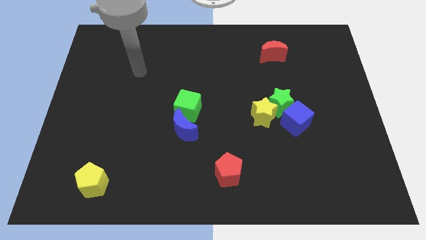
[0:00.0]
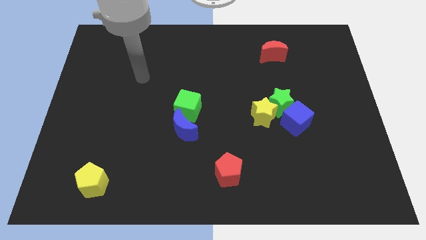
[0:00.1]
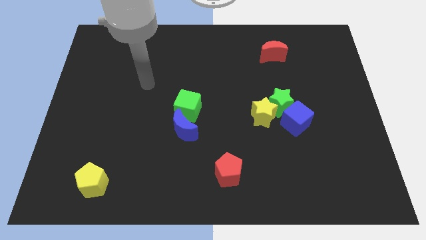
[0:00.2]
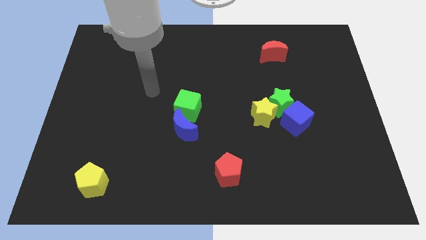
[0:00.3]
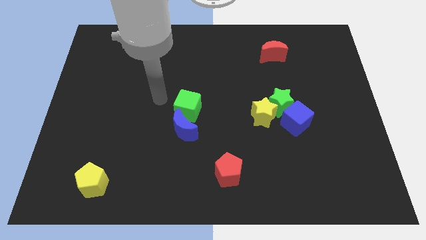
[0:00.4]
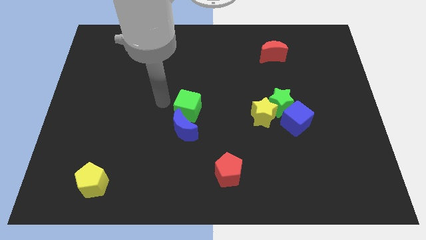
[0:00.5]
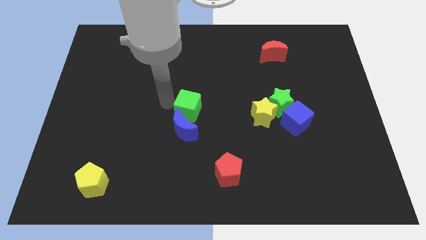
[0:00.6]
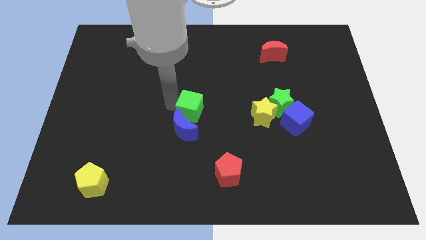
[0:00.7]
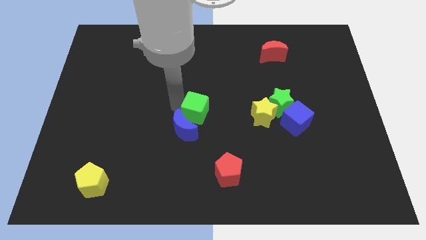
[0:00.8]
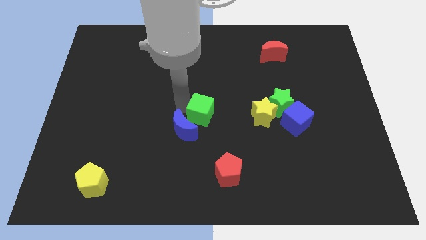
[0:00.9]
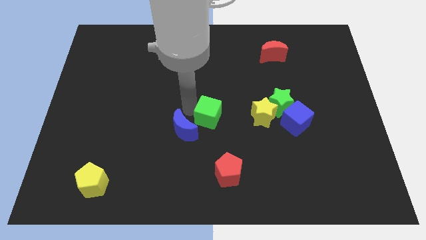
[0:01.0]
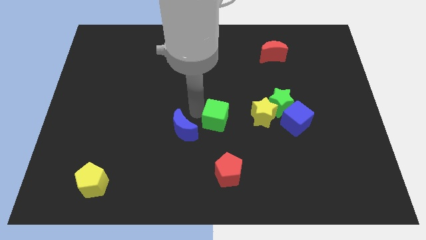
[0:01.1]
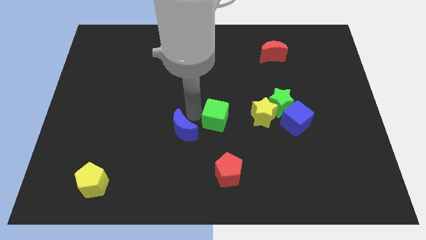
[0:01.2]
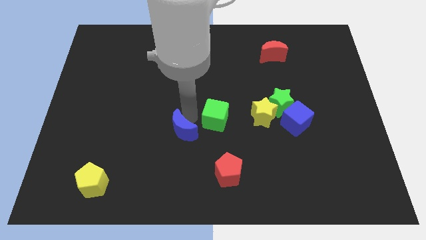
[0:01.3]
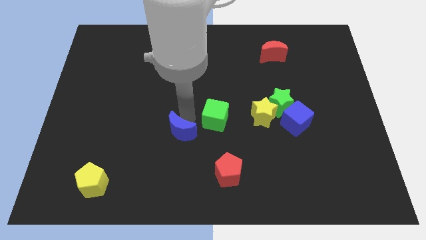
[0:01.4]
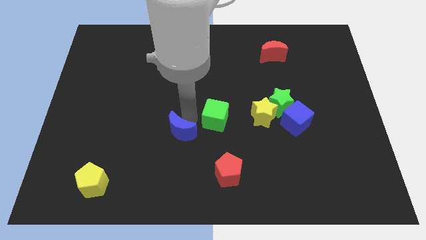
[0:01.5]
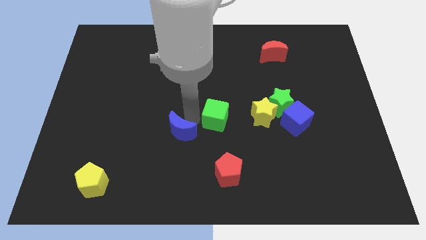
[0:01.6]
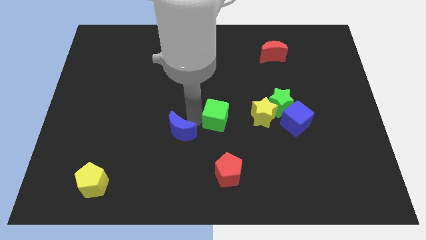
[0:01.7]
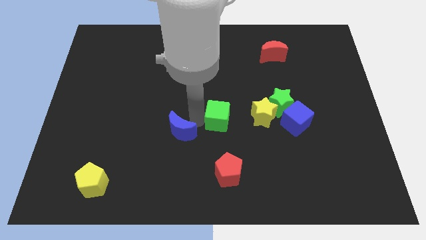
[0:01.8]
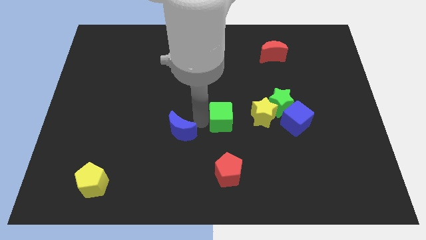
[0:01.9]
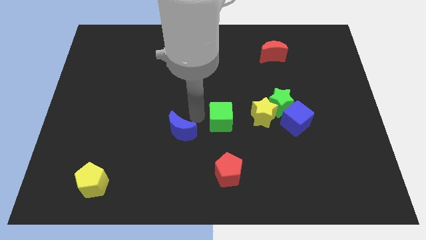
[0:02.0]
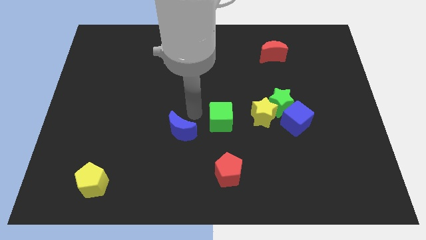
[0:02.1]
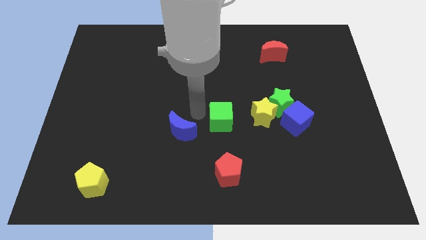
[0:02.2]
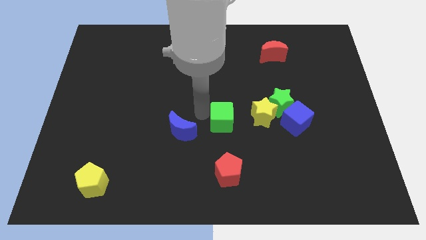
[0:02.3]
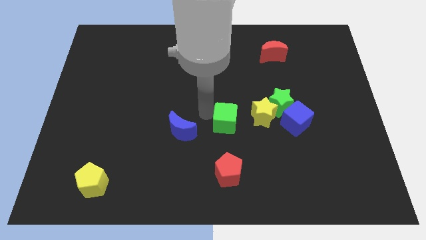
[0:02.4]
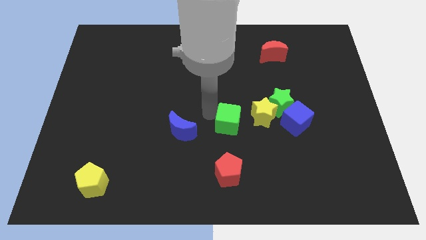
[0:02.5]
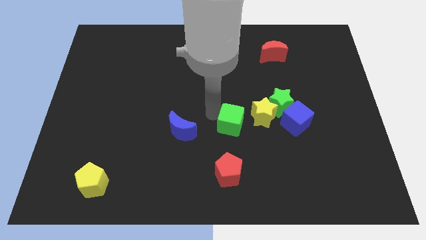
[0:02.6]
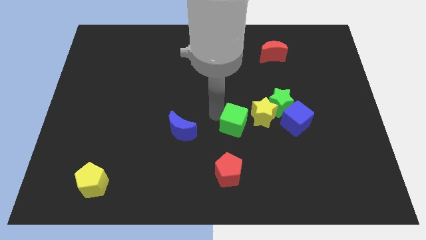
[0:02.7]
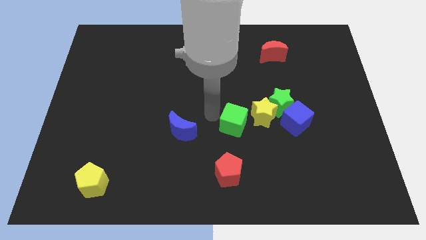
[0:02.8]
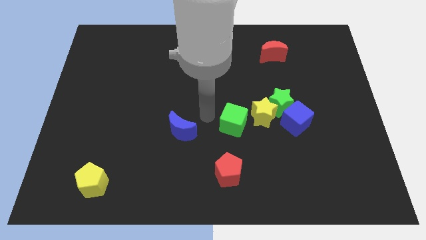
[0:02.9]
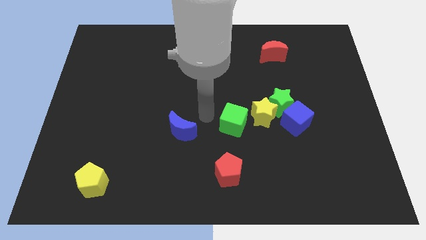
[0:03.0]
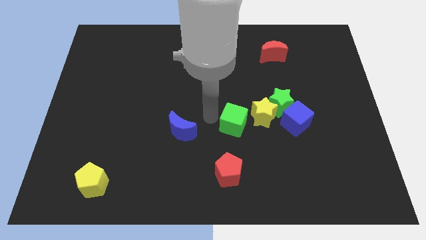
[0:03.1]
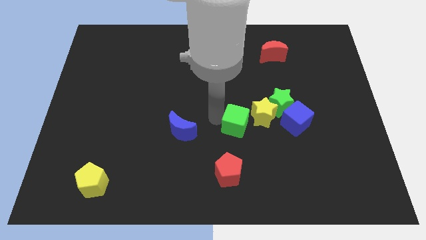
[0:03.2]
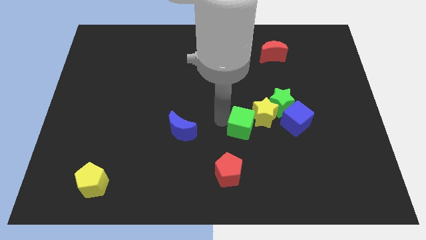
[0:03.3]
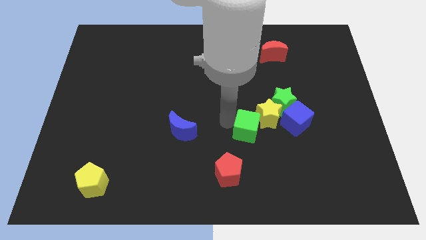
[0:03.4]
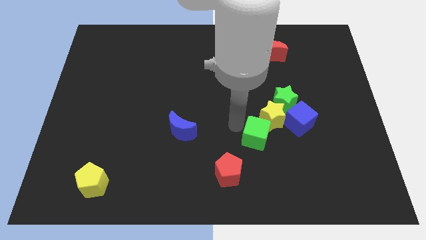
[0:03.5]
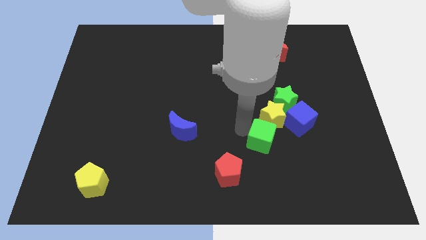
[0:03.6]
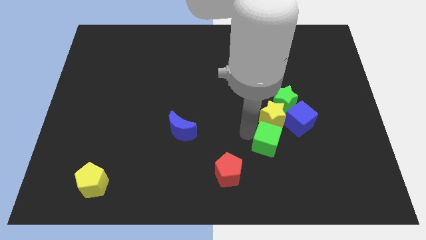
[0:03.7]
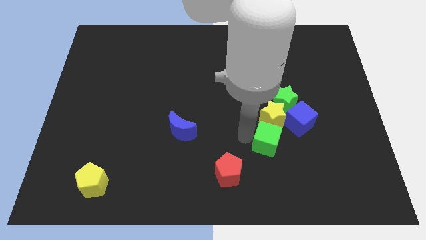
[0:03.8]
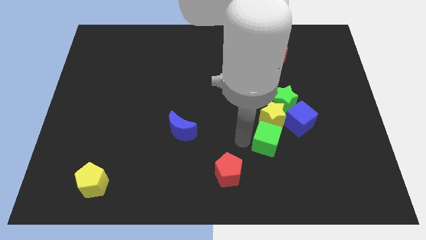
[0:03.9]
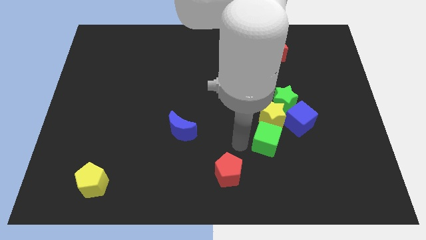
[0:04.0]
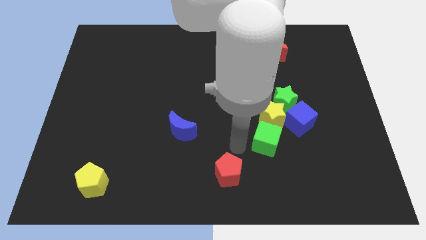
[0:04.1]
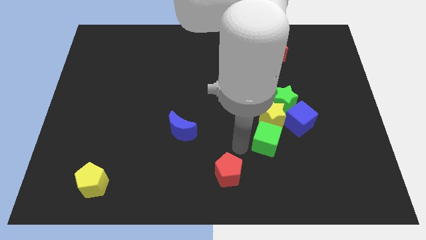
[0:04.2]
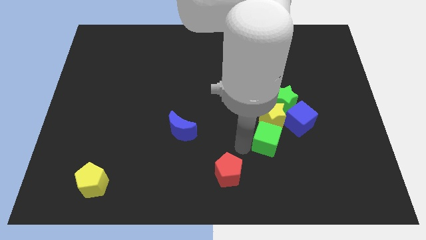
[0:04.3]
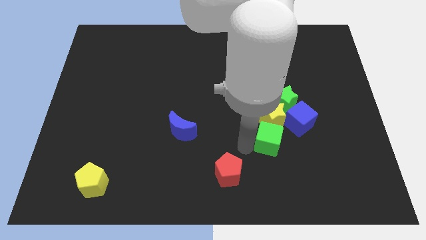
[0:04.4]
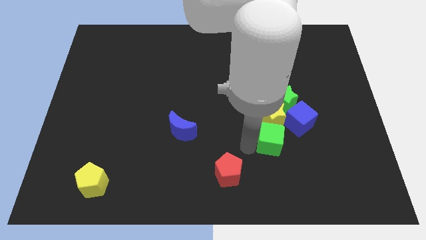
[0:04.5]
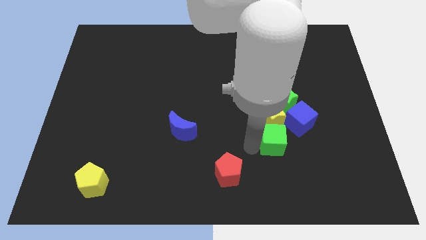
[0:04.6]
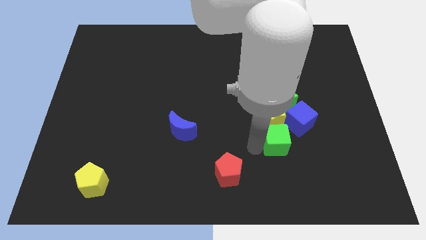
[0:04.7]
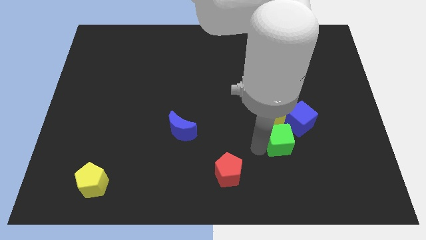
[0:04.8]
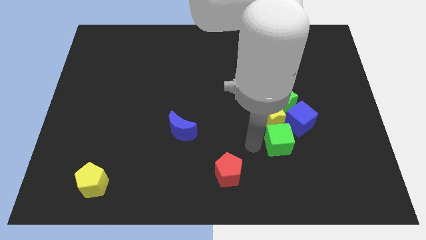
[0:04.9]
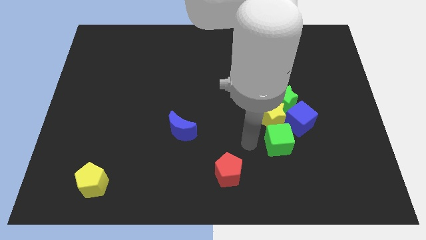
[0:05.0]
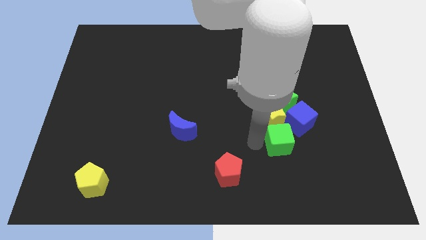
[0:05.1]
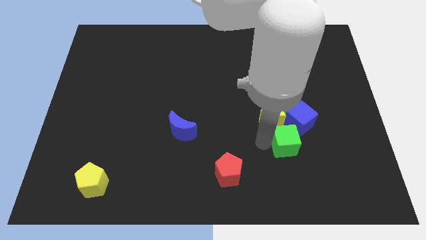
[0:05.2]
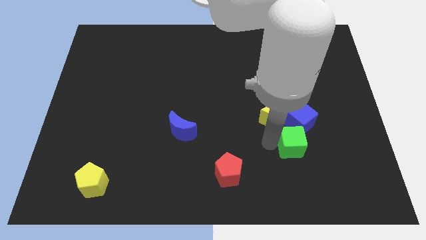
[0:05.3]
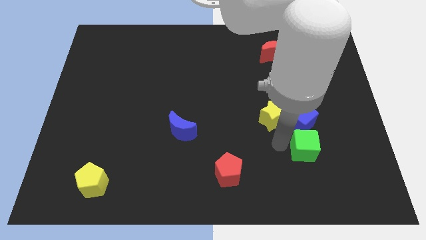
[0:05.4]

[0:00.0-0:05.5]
move the green cube to the bottom right of the blue cube

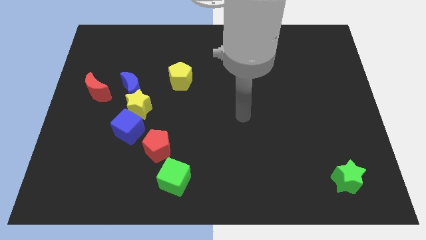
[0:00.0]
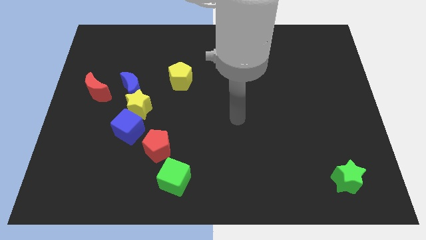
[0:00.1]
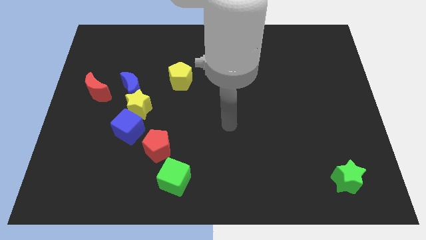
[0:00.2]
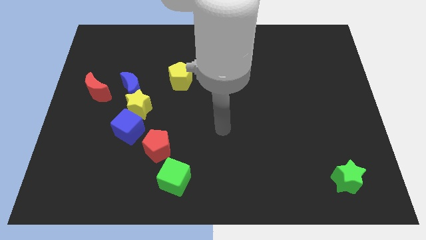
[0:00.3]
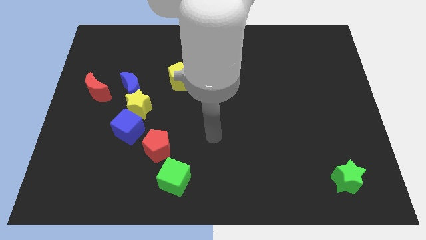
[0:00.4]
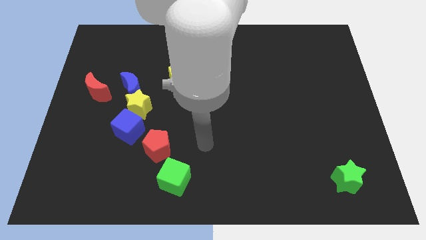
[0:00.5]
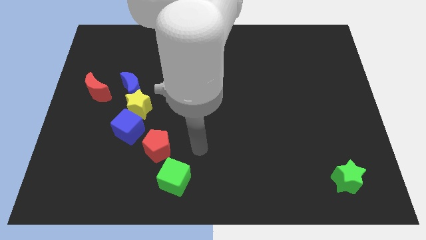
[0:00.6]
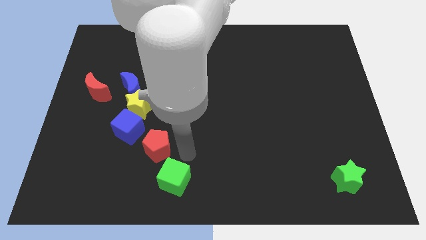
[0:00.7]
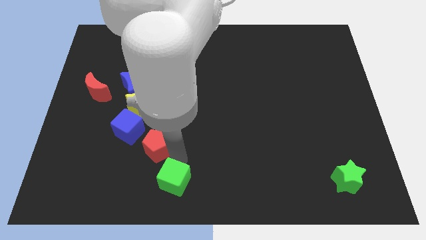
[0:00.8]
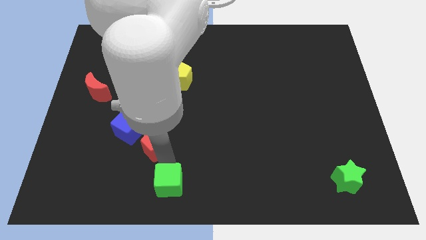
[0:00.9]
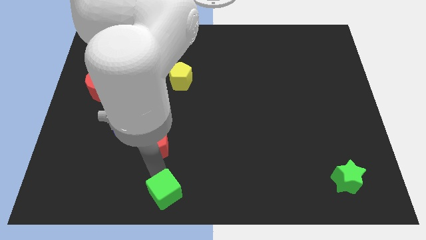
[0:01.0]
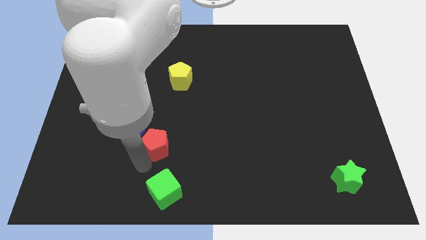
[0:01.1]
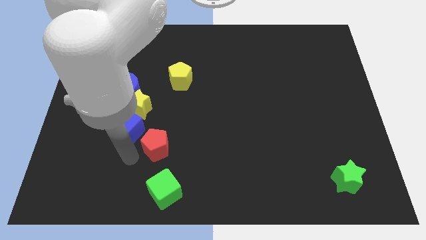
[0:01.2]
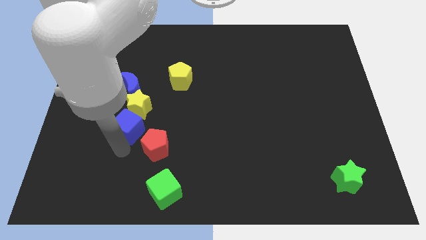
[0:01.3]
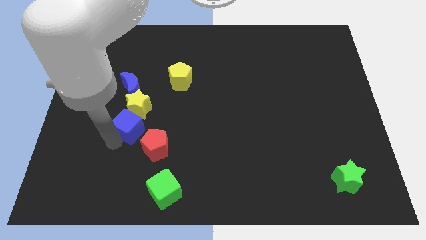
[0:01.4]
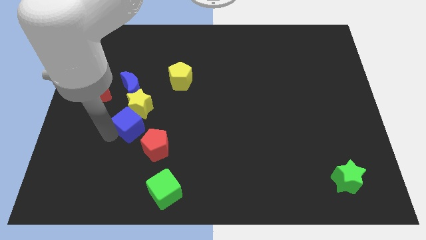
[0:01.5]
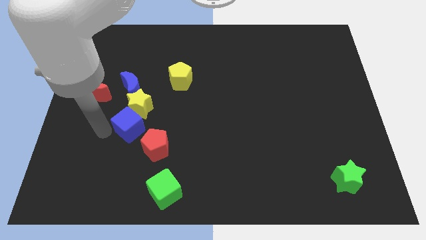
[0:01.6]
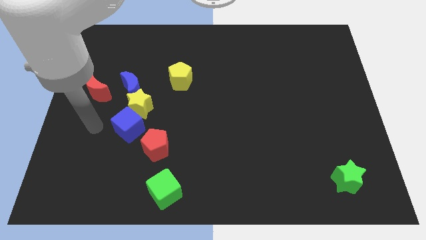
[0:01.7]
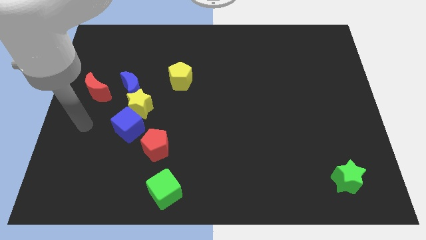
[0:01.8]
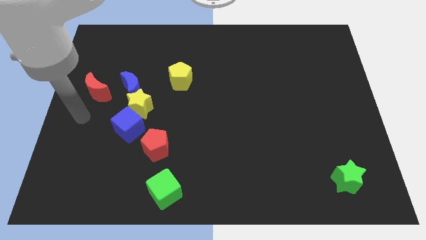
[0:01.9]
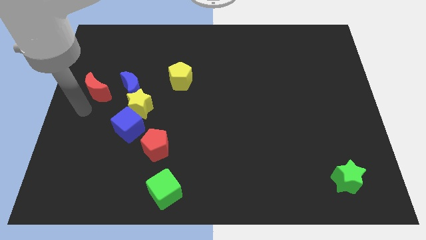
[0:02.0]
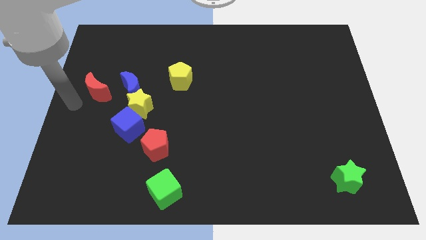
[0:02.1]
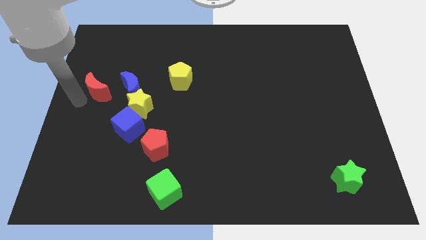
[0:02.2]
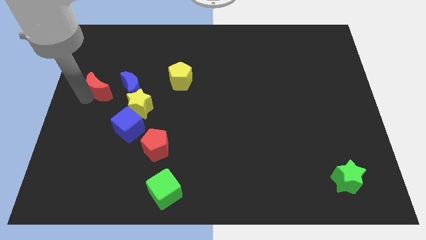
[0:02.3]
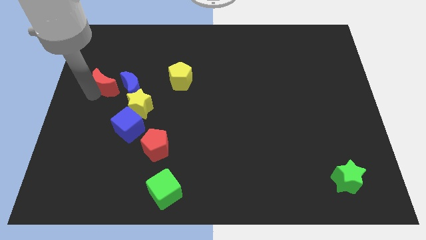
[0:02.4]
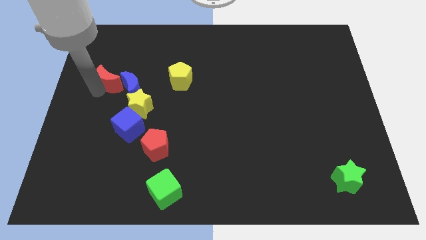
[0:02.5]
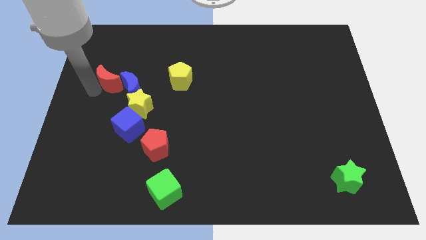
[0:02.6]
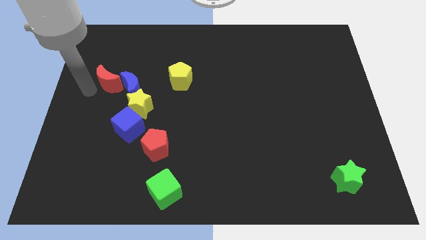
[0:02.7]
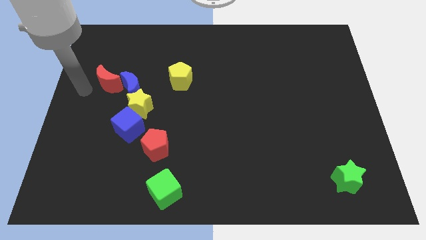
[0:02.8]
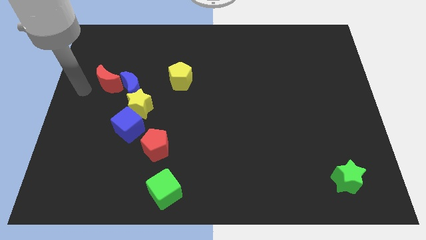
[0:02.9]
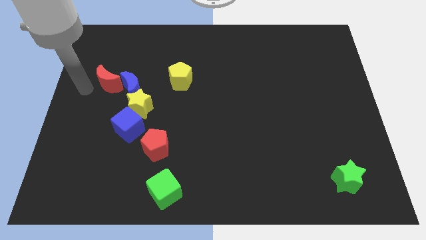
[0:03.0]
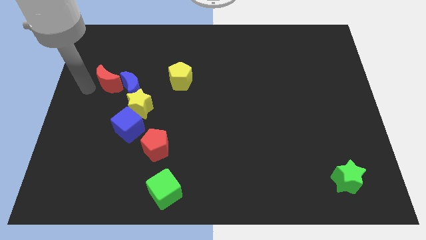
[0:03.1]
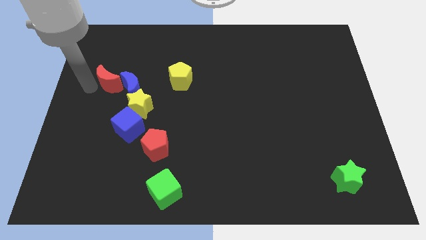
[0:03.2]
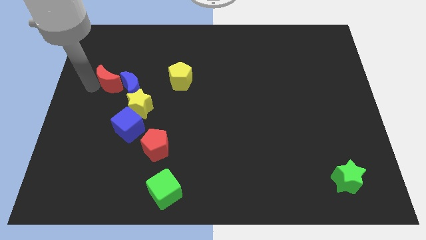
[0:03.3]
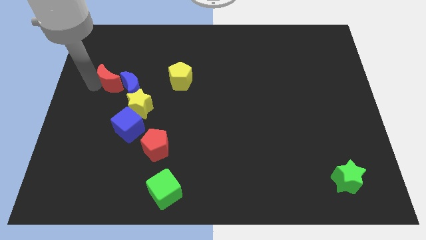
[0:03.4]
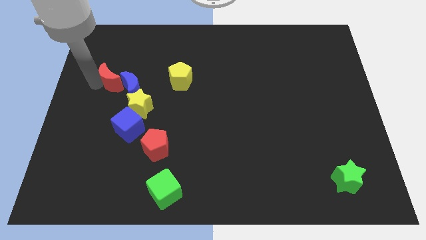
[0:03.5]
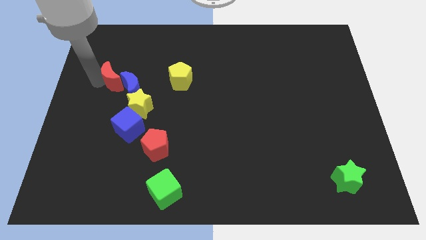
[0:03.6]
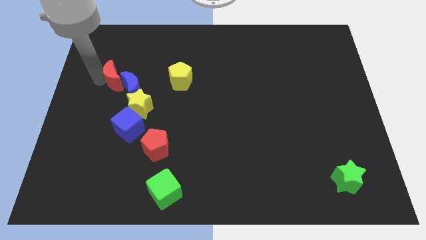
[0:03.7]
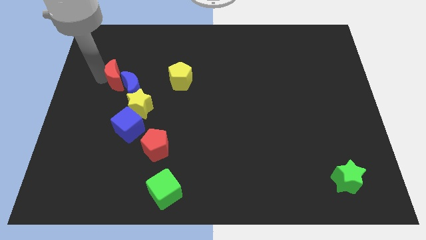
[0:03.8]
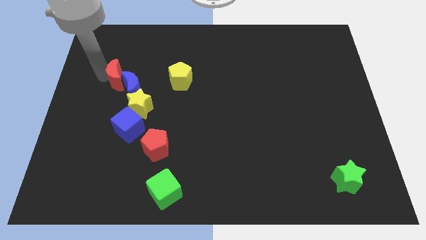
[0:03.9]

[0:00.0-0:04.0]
put the red moon to the left of the yellow pentagon
